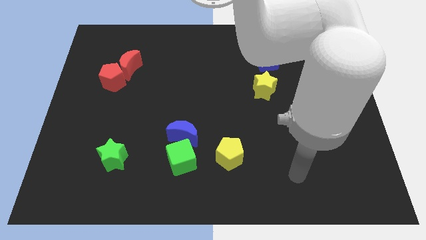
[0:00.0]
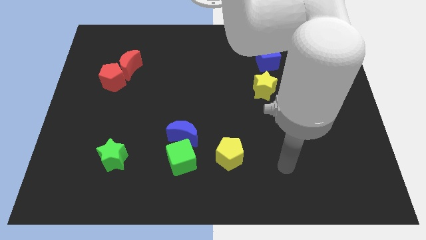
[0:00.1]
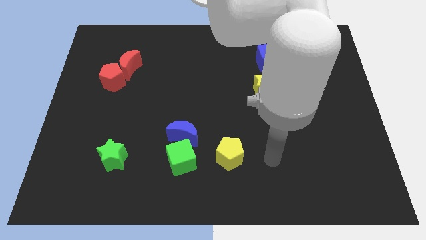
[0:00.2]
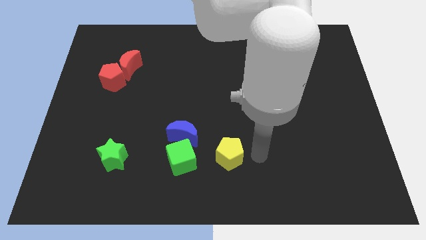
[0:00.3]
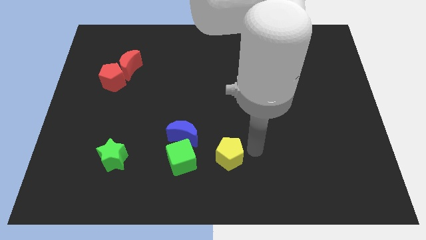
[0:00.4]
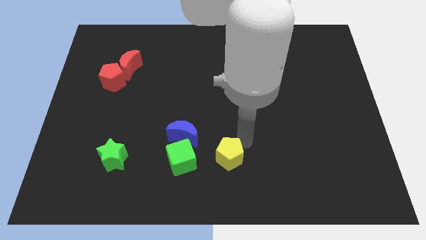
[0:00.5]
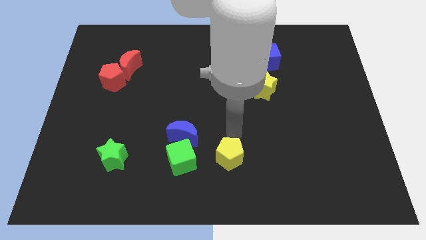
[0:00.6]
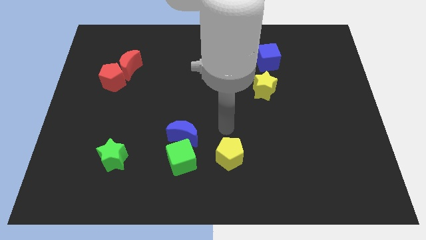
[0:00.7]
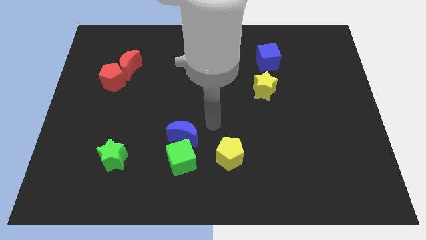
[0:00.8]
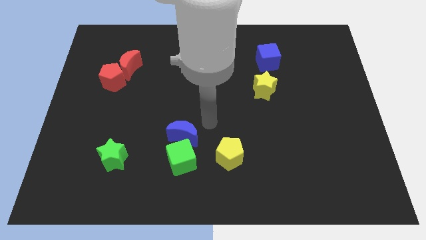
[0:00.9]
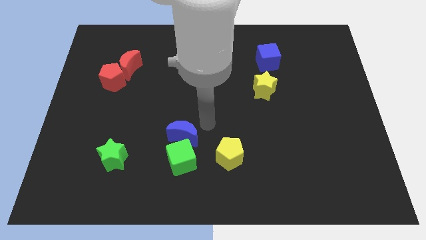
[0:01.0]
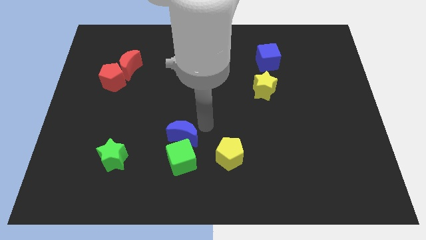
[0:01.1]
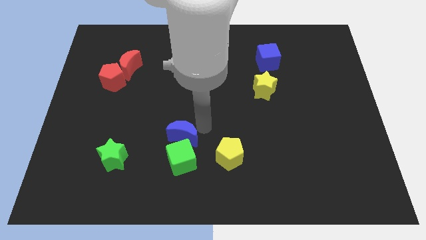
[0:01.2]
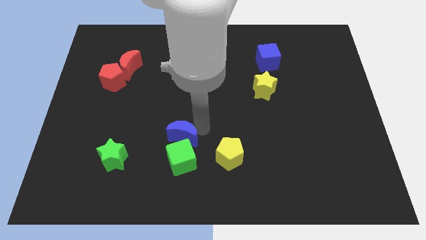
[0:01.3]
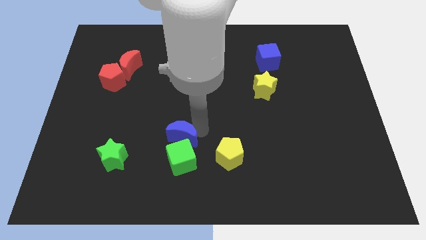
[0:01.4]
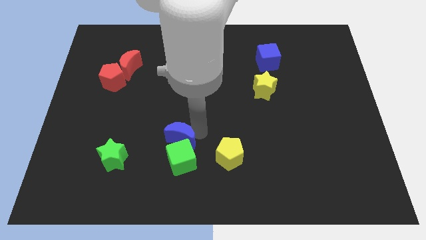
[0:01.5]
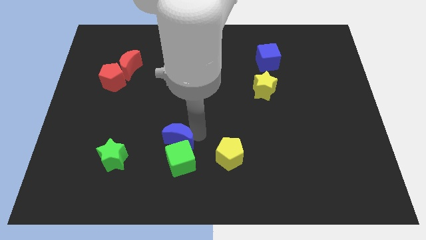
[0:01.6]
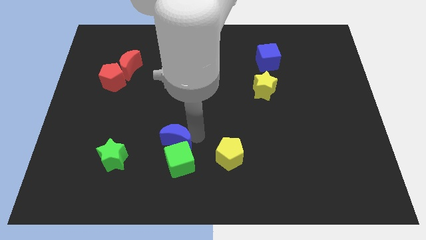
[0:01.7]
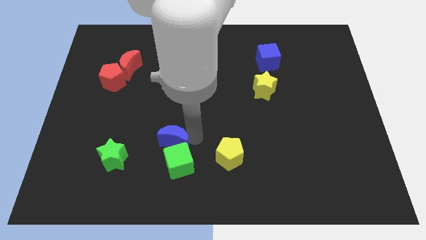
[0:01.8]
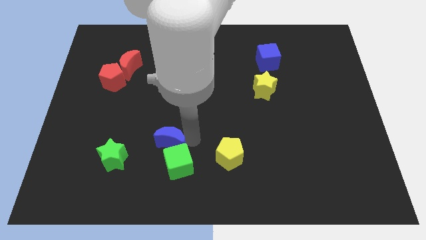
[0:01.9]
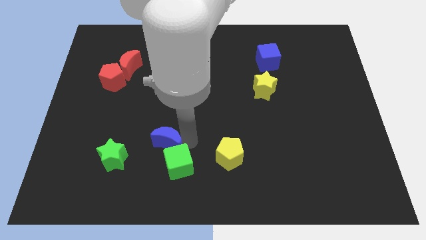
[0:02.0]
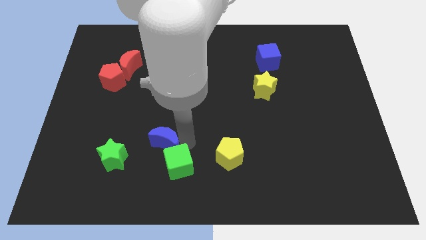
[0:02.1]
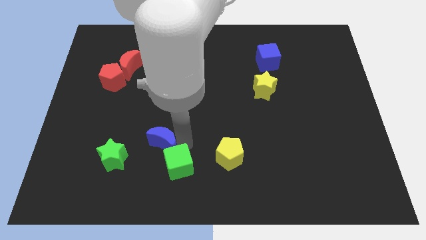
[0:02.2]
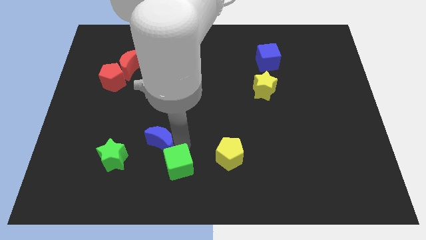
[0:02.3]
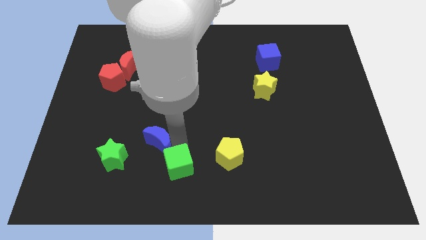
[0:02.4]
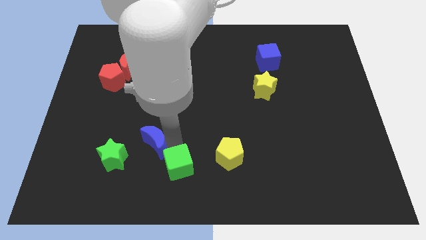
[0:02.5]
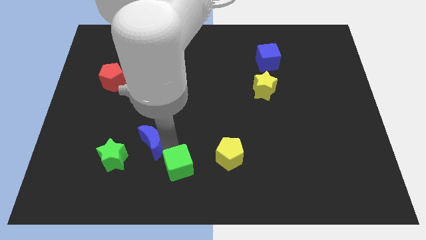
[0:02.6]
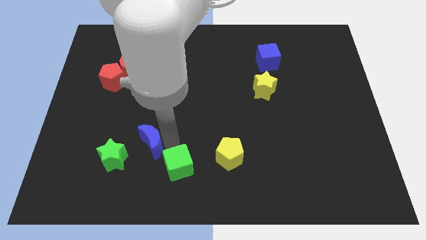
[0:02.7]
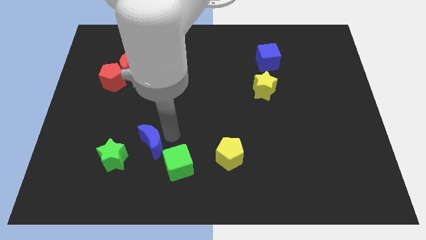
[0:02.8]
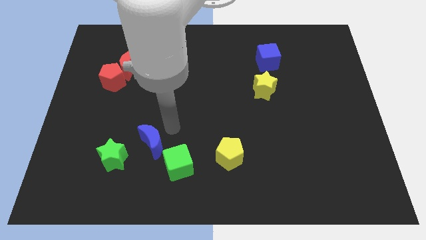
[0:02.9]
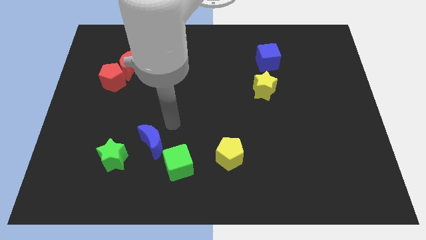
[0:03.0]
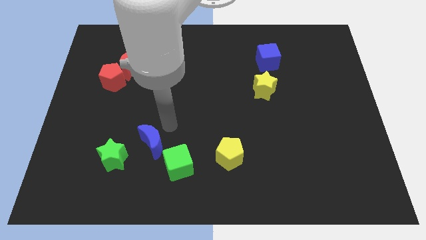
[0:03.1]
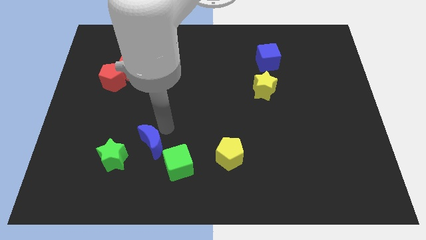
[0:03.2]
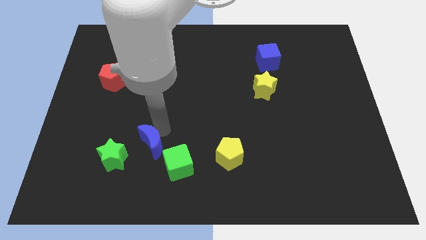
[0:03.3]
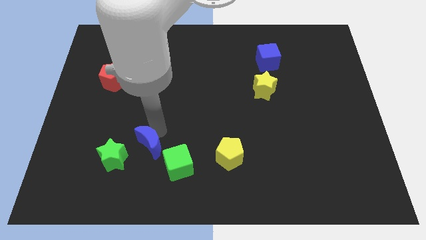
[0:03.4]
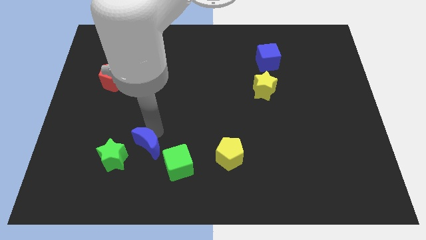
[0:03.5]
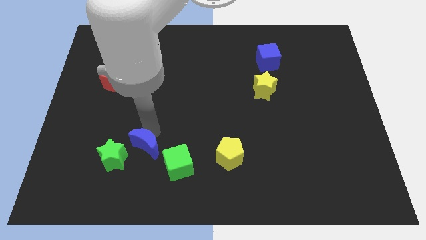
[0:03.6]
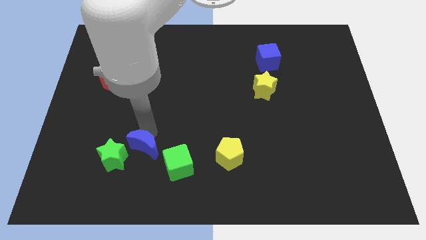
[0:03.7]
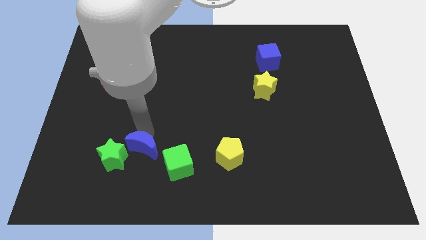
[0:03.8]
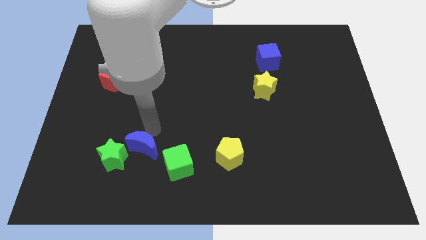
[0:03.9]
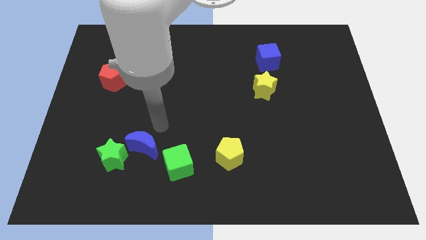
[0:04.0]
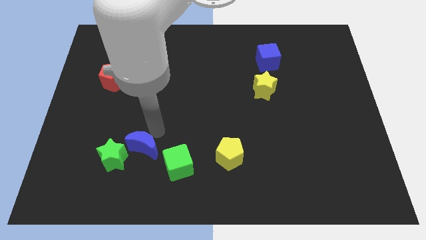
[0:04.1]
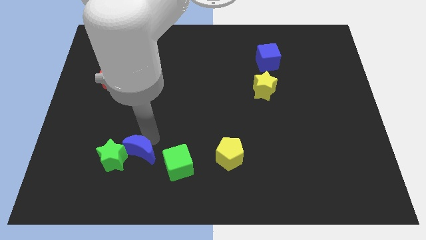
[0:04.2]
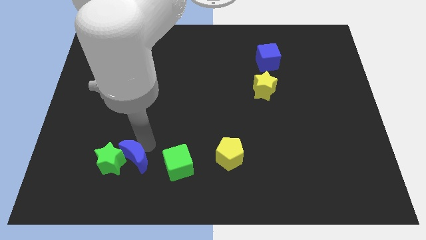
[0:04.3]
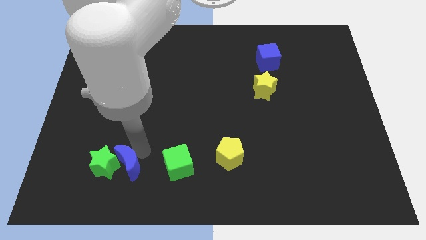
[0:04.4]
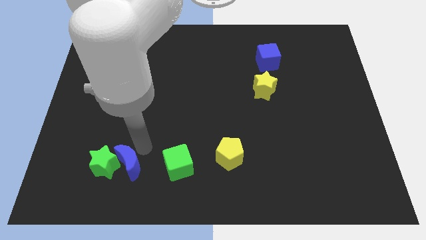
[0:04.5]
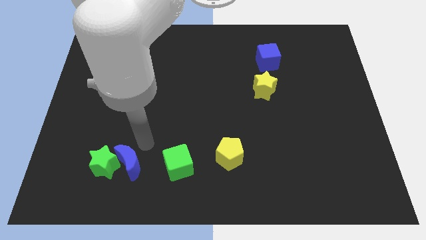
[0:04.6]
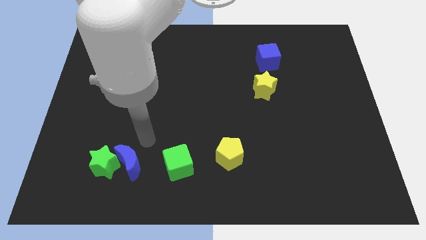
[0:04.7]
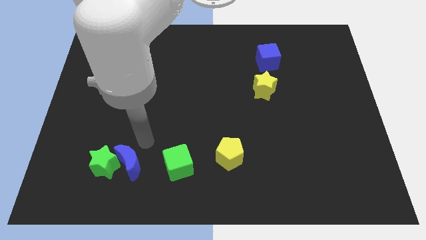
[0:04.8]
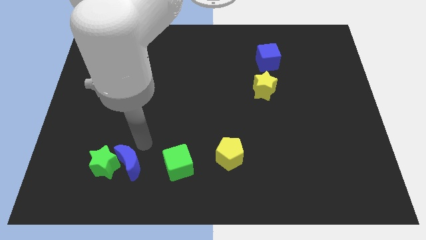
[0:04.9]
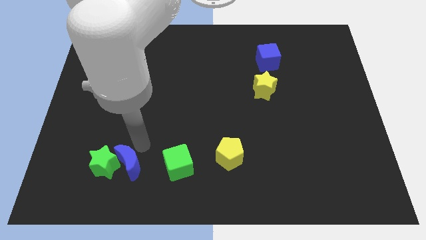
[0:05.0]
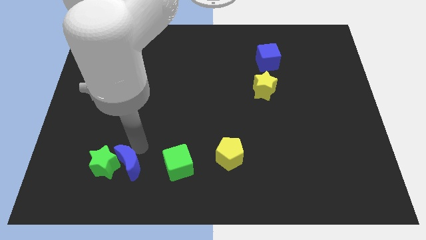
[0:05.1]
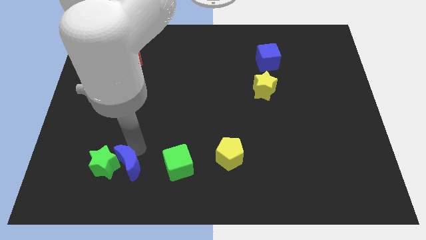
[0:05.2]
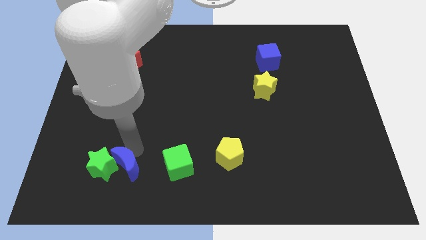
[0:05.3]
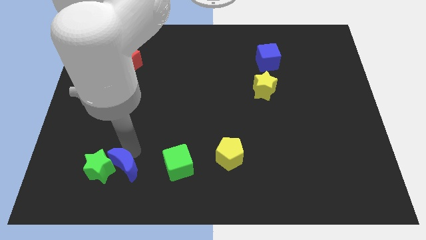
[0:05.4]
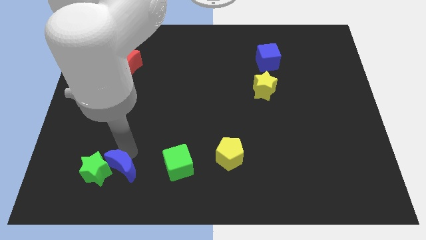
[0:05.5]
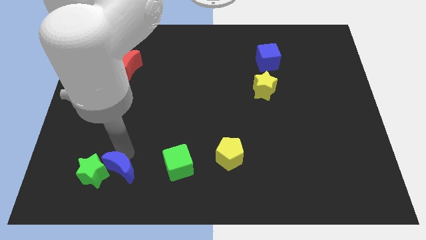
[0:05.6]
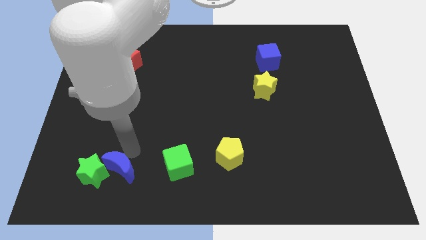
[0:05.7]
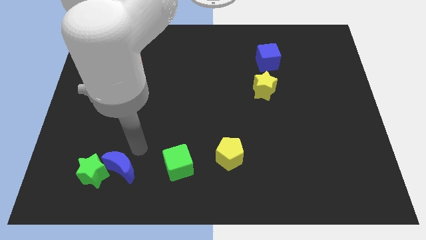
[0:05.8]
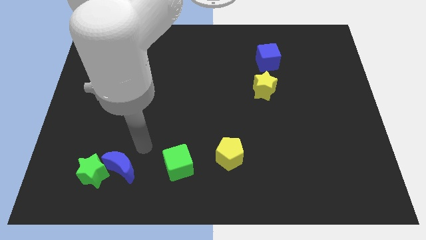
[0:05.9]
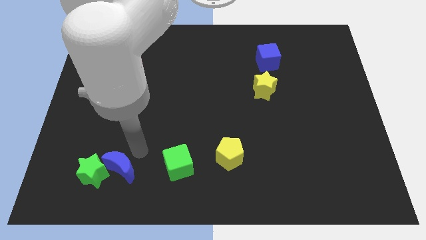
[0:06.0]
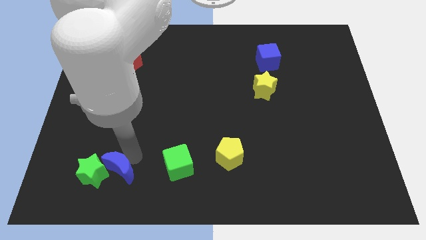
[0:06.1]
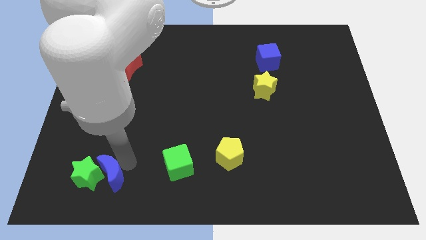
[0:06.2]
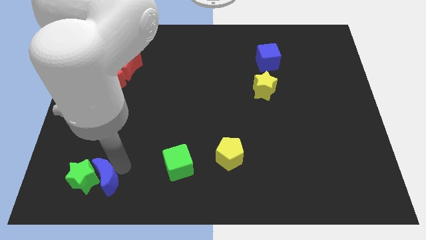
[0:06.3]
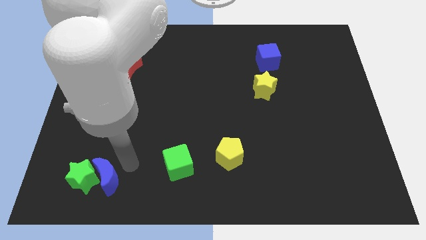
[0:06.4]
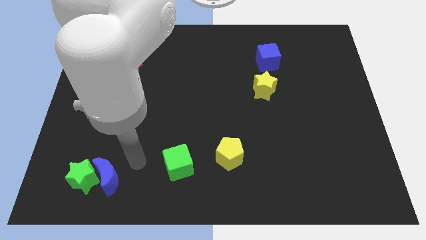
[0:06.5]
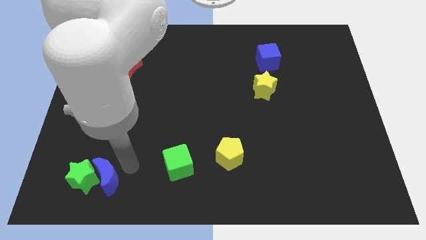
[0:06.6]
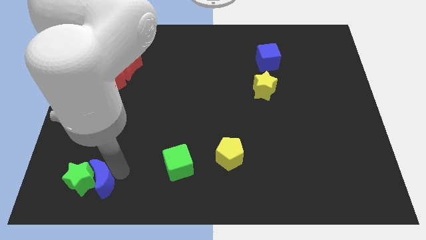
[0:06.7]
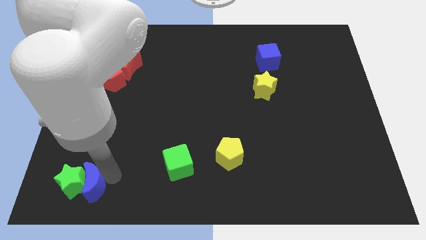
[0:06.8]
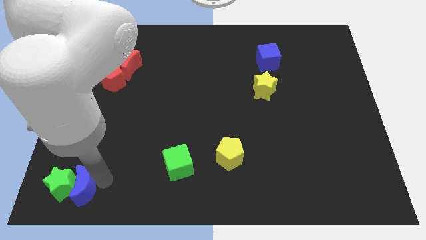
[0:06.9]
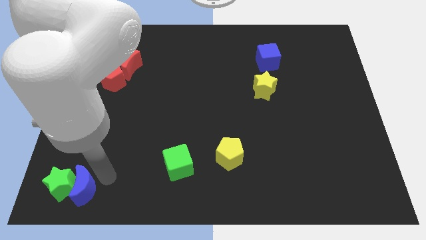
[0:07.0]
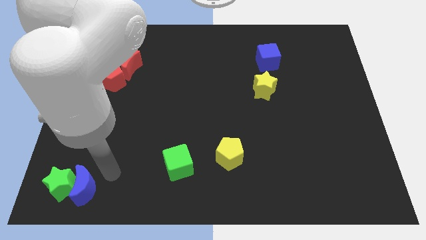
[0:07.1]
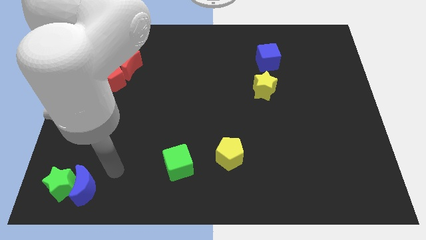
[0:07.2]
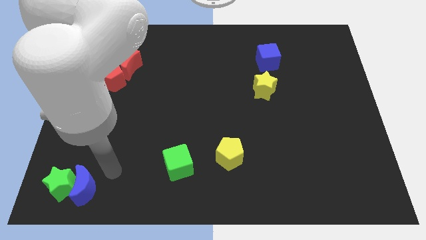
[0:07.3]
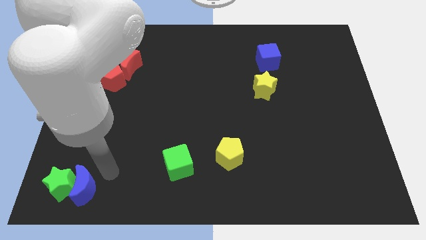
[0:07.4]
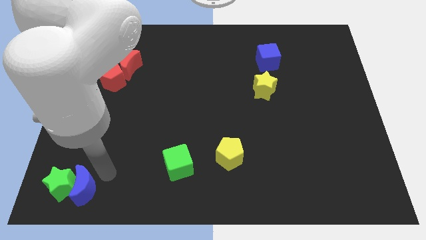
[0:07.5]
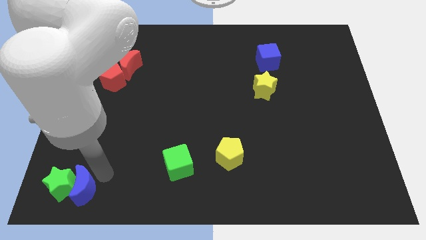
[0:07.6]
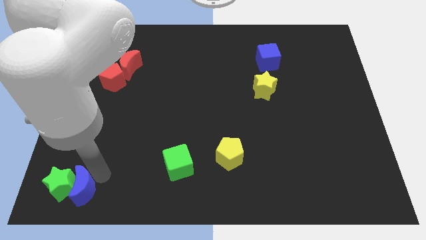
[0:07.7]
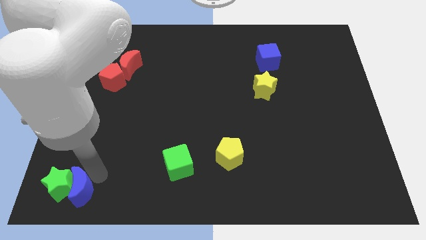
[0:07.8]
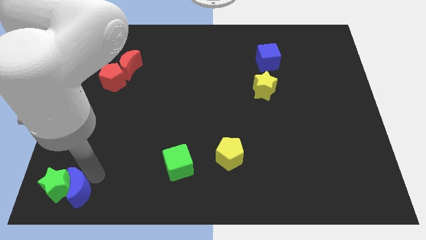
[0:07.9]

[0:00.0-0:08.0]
put the blue moon to the lower left corner
